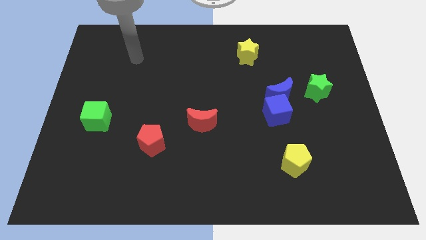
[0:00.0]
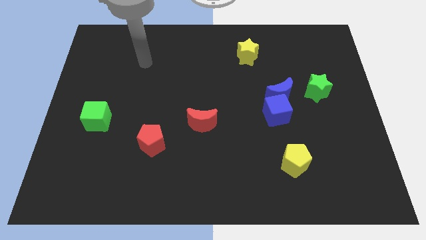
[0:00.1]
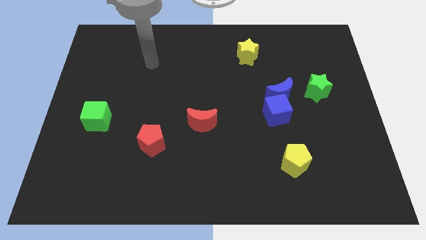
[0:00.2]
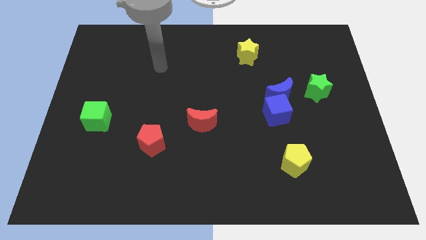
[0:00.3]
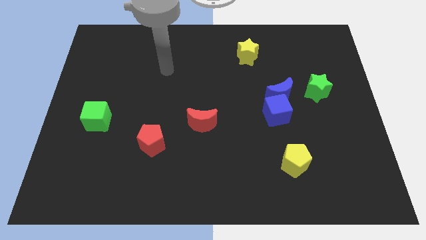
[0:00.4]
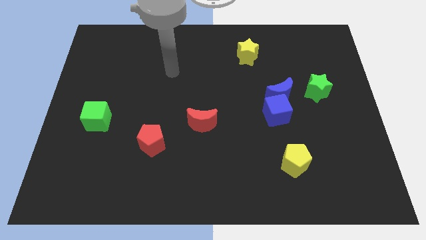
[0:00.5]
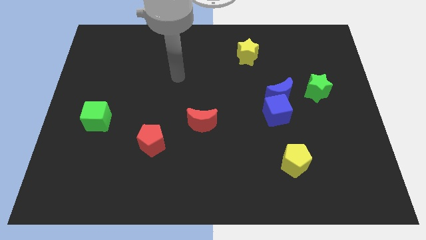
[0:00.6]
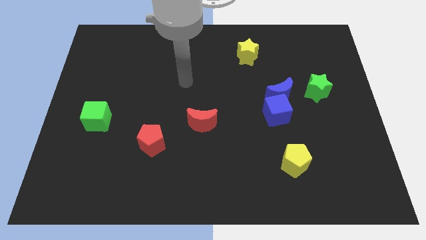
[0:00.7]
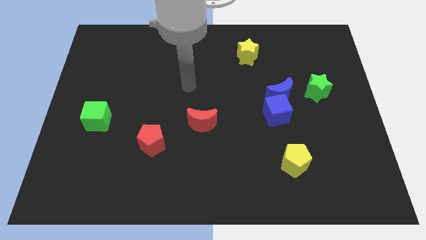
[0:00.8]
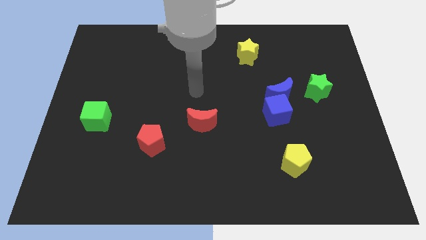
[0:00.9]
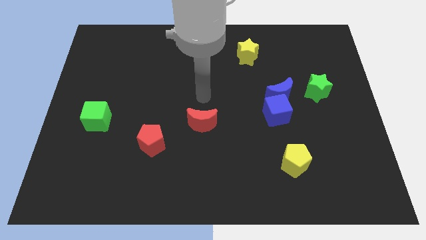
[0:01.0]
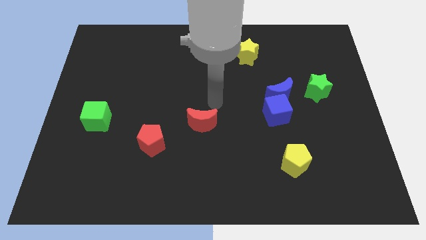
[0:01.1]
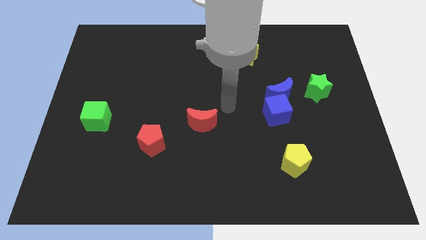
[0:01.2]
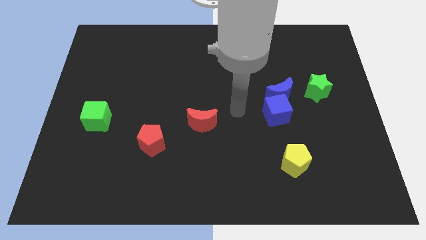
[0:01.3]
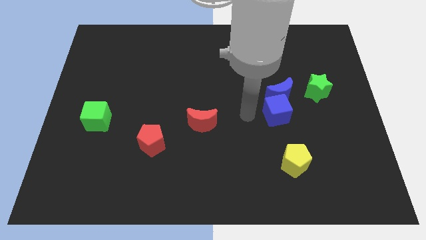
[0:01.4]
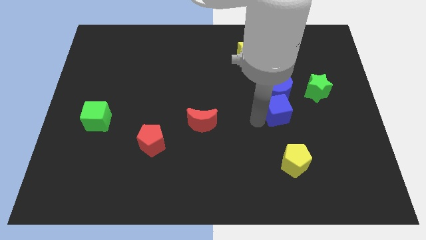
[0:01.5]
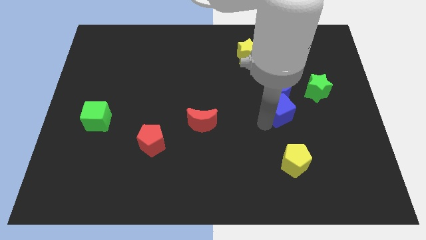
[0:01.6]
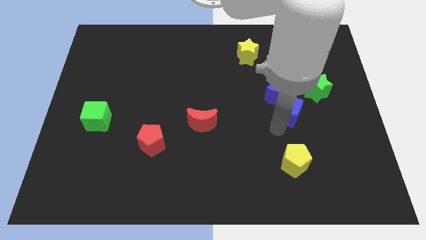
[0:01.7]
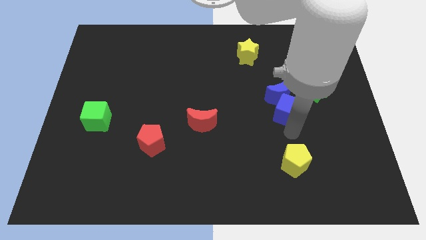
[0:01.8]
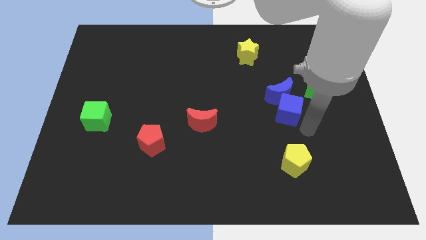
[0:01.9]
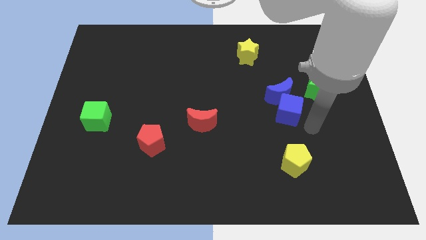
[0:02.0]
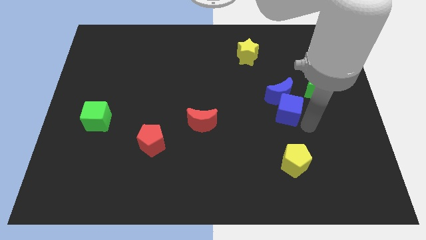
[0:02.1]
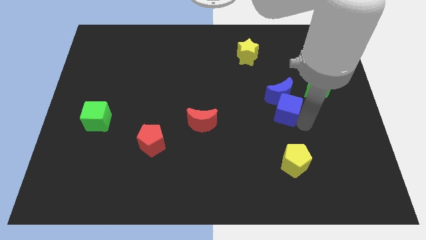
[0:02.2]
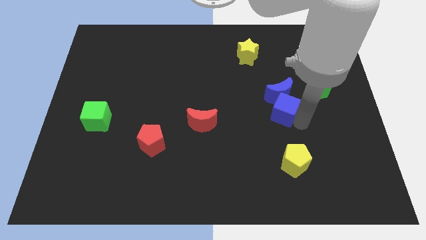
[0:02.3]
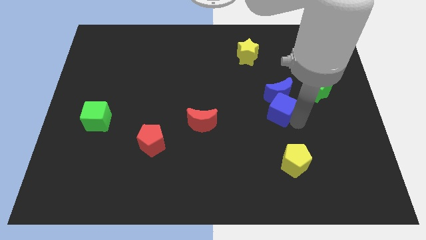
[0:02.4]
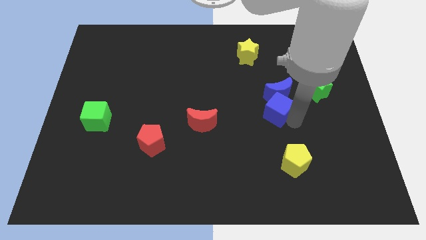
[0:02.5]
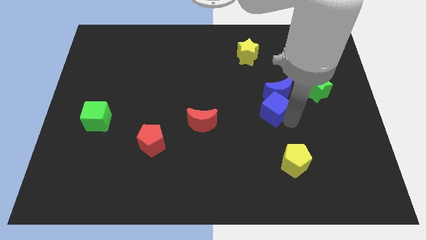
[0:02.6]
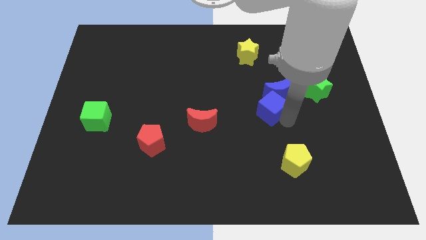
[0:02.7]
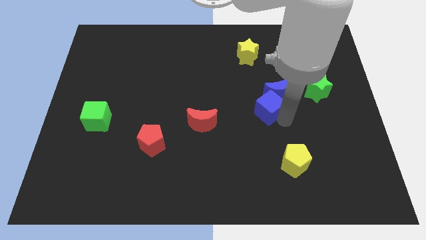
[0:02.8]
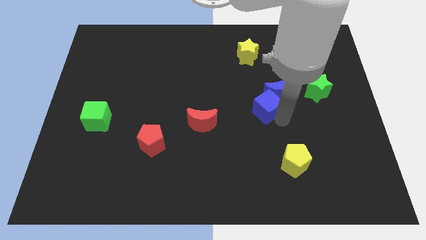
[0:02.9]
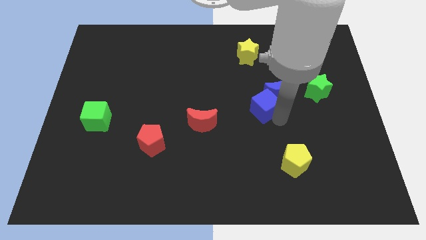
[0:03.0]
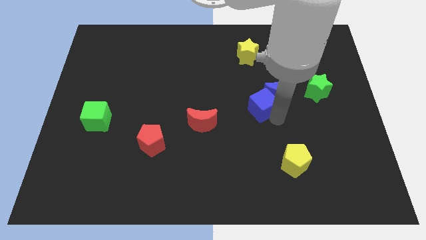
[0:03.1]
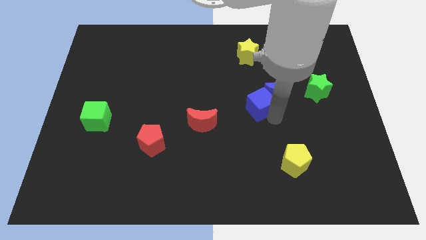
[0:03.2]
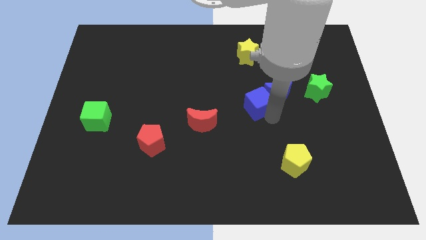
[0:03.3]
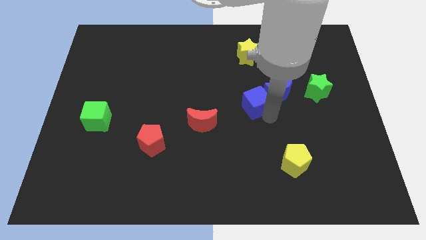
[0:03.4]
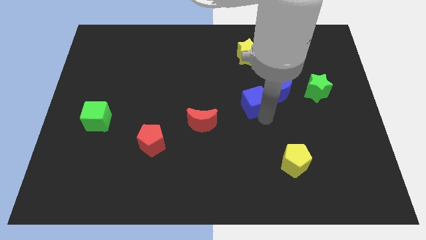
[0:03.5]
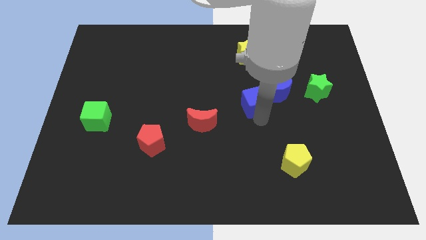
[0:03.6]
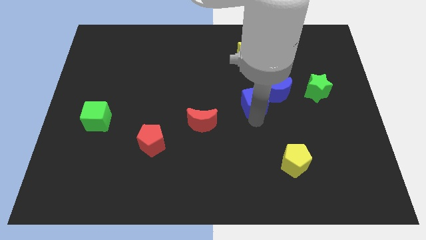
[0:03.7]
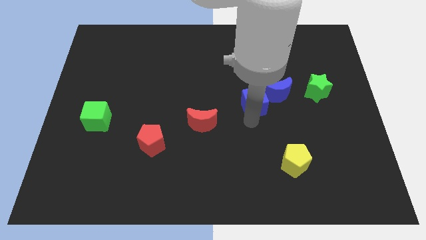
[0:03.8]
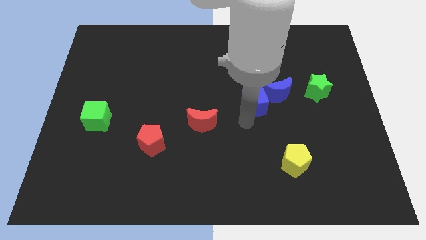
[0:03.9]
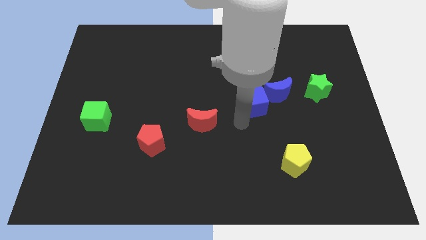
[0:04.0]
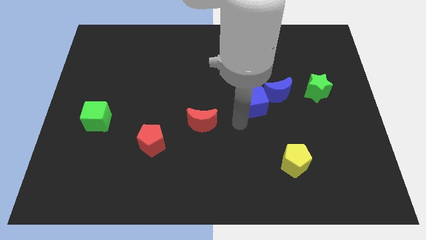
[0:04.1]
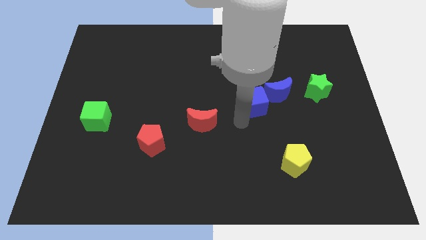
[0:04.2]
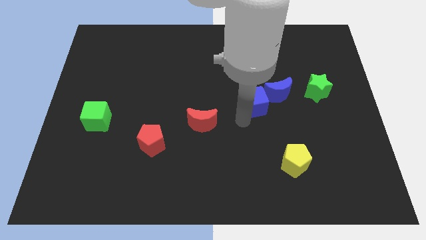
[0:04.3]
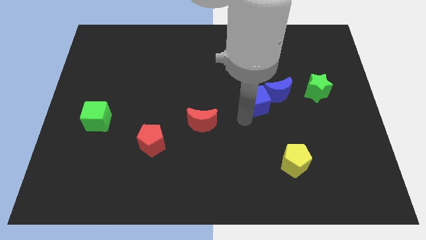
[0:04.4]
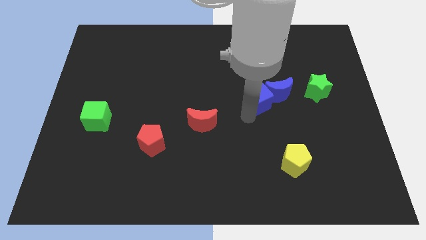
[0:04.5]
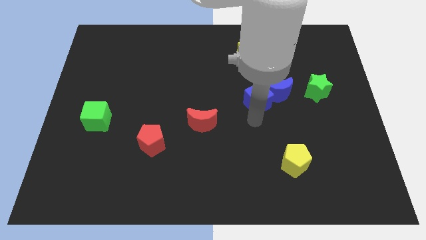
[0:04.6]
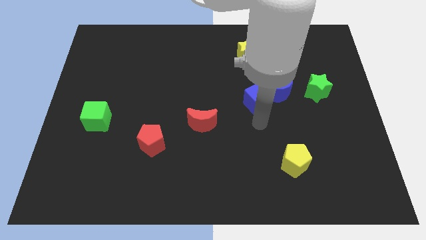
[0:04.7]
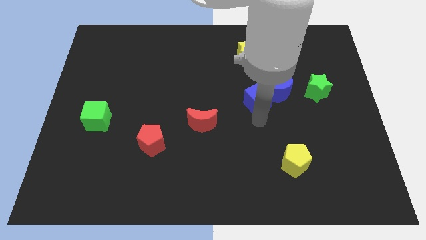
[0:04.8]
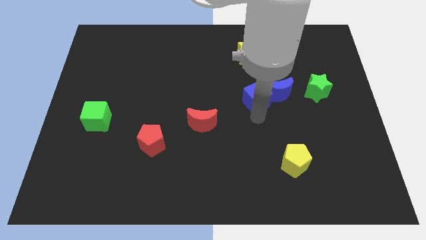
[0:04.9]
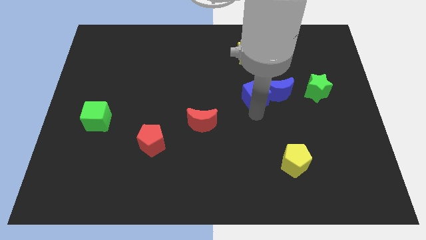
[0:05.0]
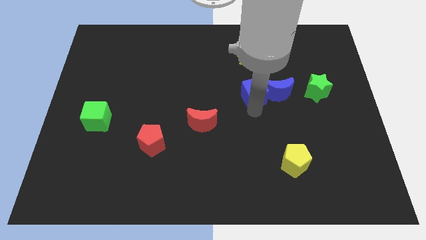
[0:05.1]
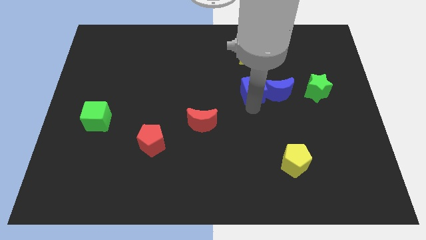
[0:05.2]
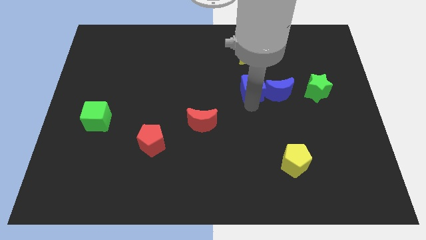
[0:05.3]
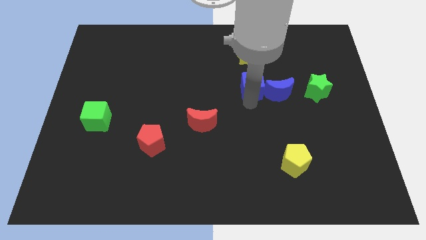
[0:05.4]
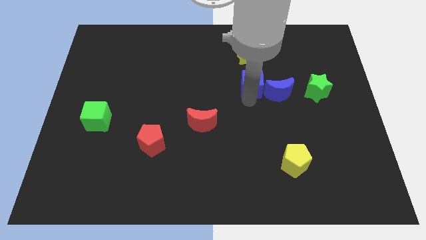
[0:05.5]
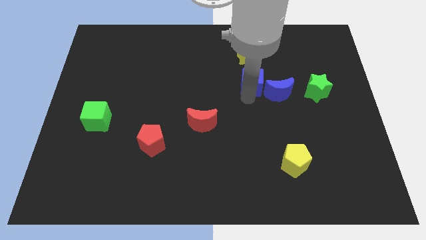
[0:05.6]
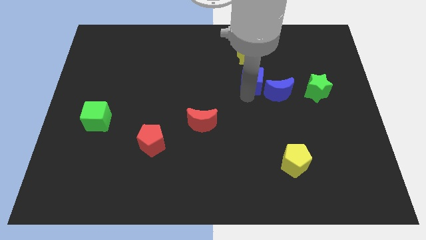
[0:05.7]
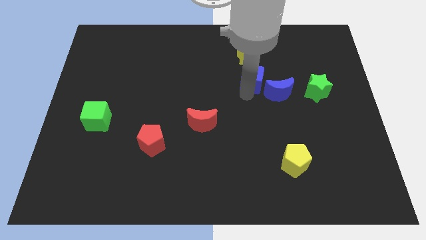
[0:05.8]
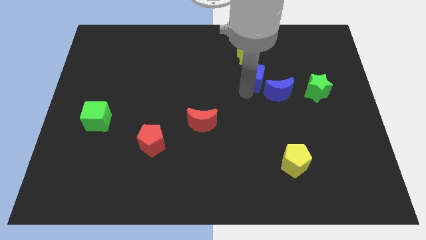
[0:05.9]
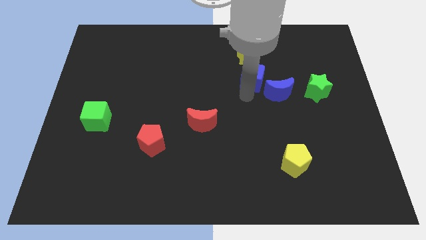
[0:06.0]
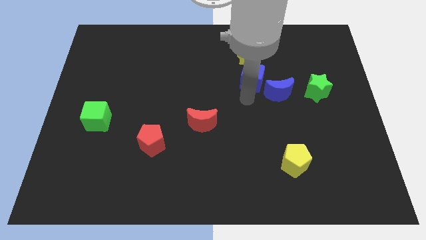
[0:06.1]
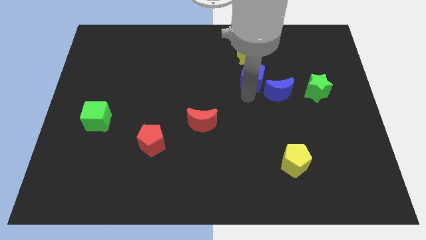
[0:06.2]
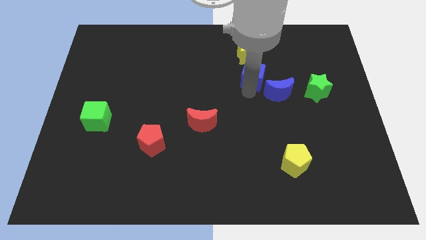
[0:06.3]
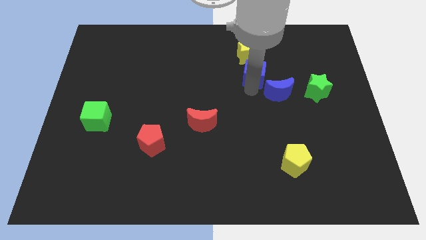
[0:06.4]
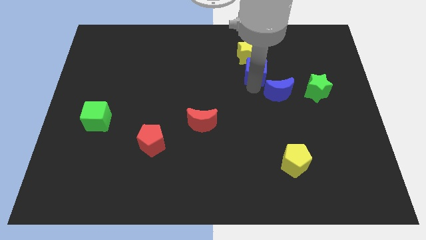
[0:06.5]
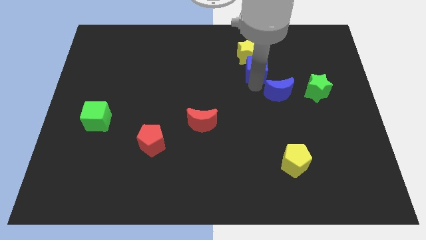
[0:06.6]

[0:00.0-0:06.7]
move the blue cube close to the yellow star
